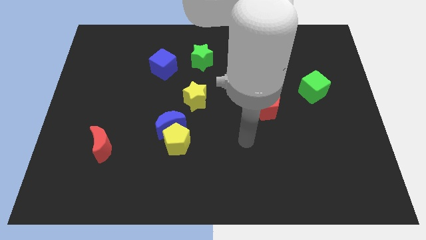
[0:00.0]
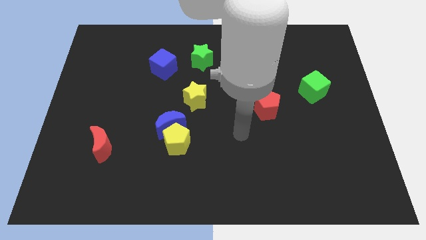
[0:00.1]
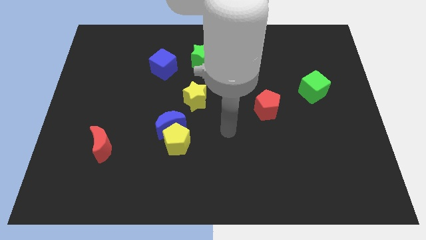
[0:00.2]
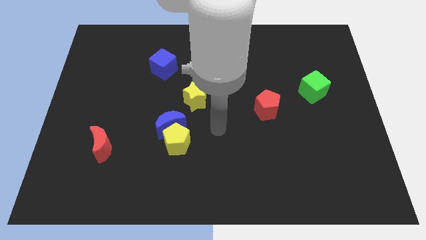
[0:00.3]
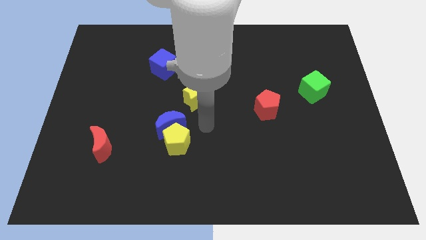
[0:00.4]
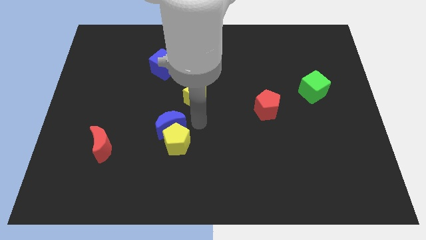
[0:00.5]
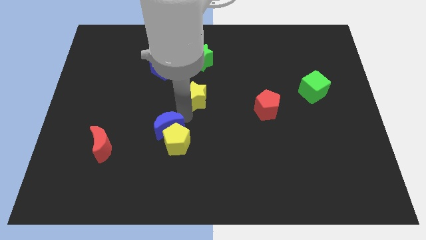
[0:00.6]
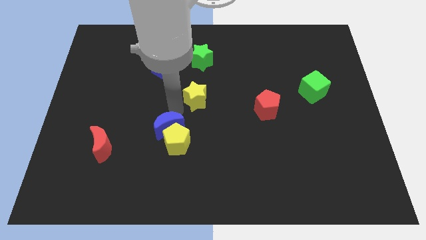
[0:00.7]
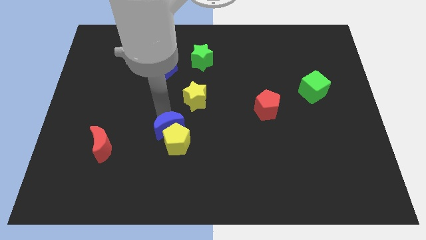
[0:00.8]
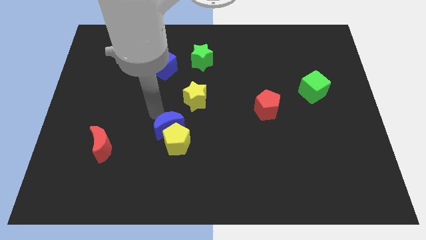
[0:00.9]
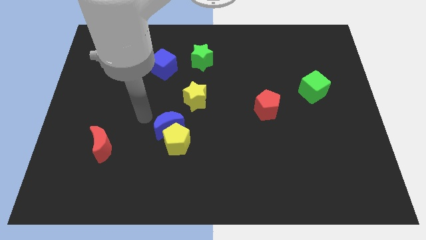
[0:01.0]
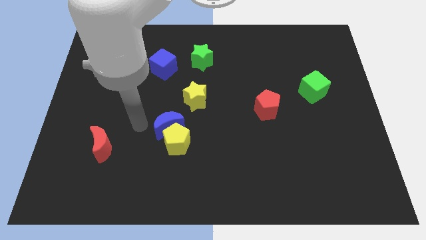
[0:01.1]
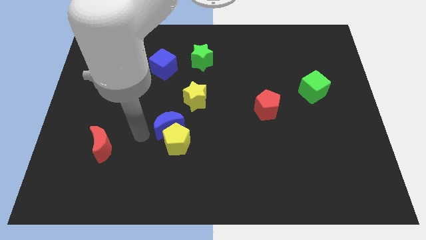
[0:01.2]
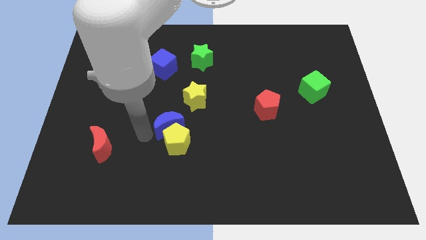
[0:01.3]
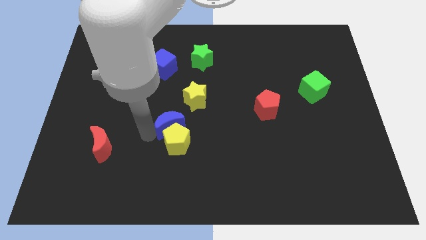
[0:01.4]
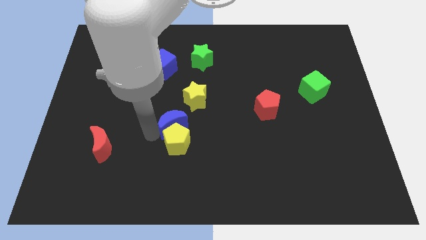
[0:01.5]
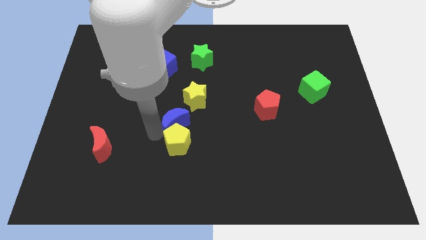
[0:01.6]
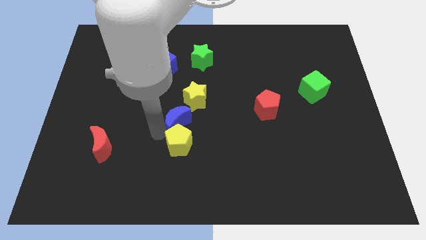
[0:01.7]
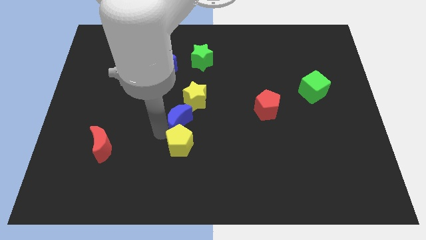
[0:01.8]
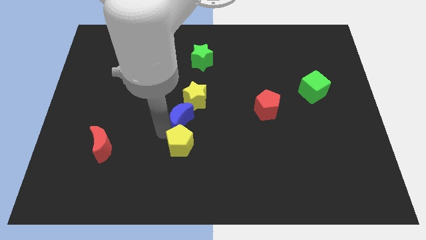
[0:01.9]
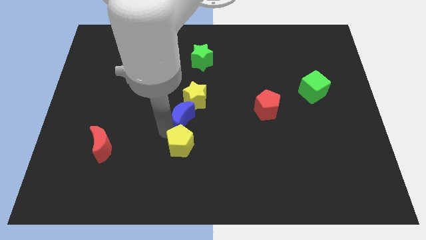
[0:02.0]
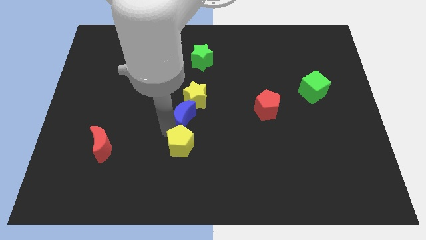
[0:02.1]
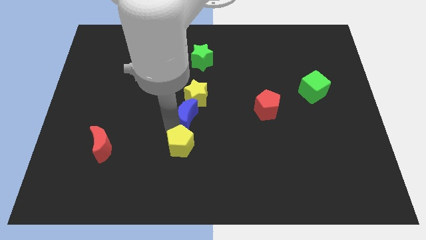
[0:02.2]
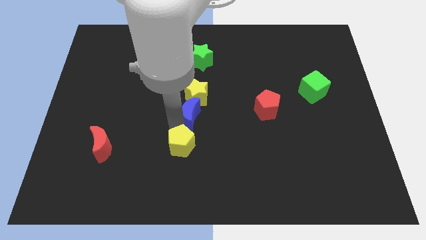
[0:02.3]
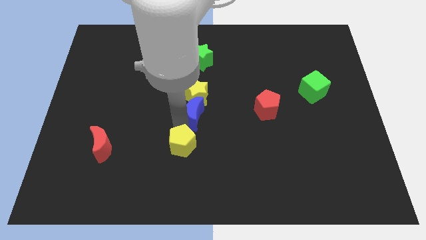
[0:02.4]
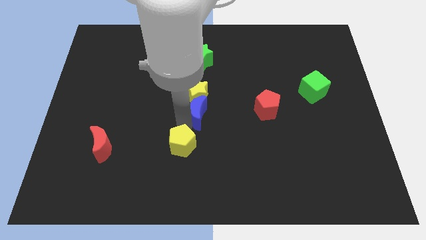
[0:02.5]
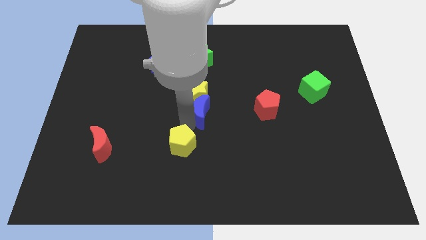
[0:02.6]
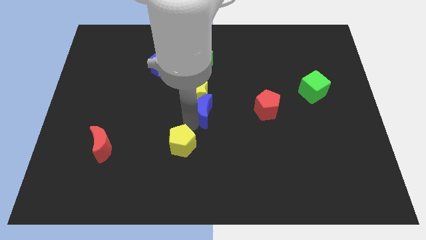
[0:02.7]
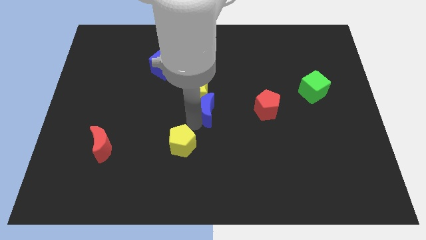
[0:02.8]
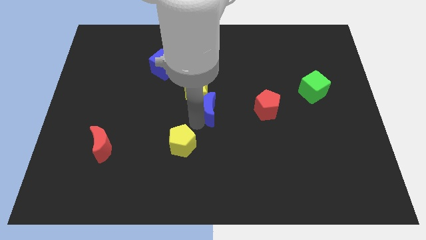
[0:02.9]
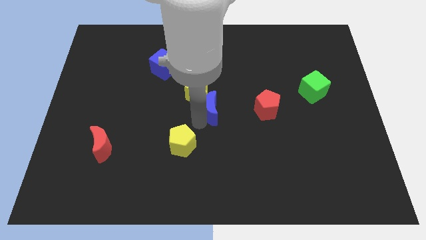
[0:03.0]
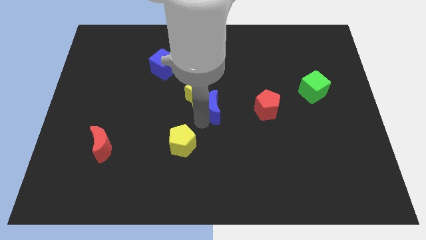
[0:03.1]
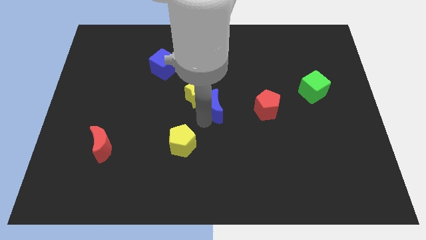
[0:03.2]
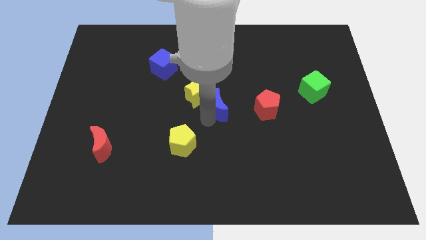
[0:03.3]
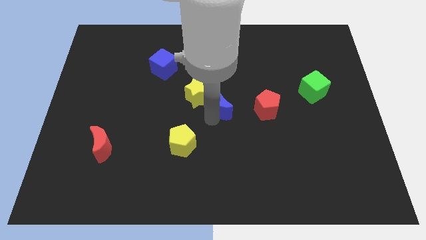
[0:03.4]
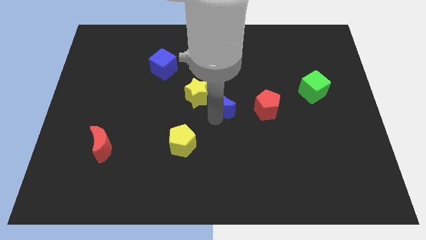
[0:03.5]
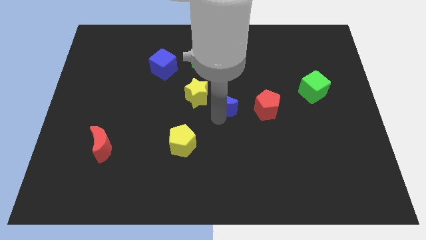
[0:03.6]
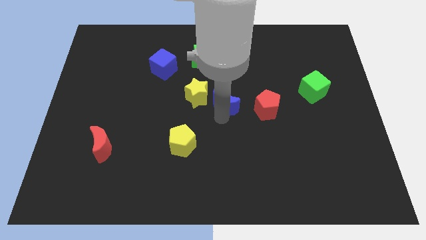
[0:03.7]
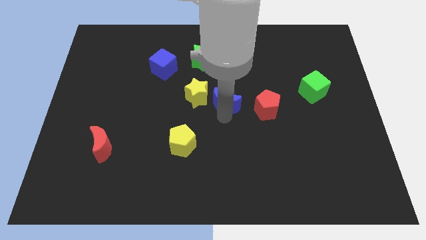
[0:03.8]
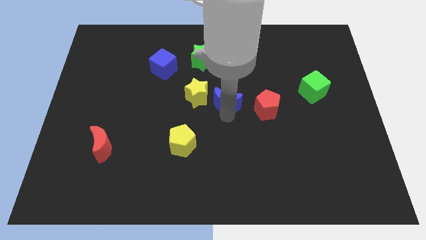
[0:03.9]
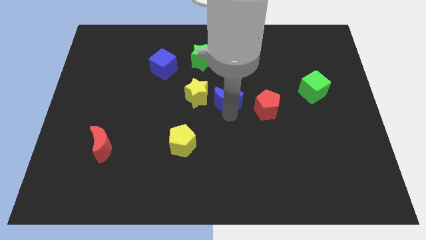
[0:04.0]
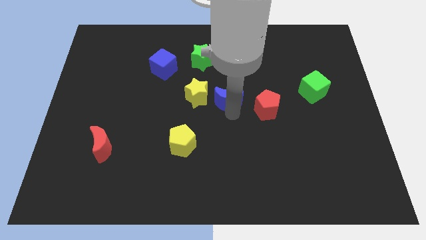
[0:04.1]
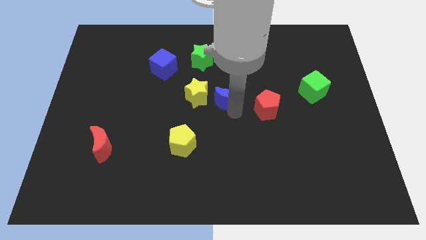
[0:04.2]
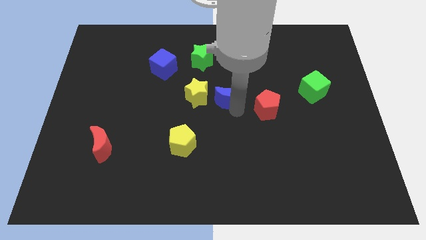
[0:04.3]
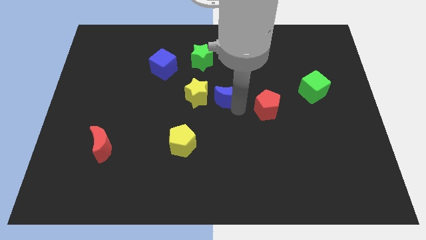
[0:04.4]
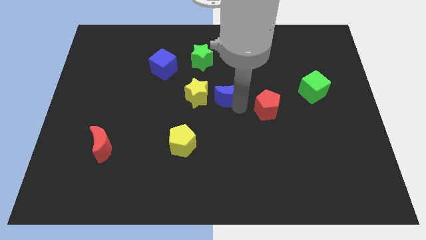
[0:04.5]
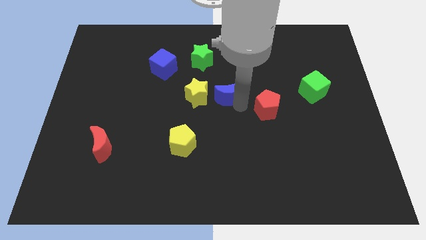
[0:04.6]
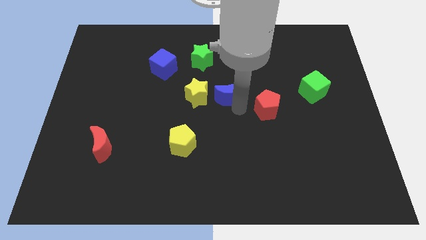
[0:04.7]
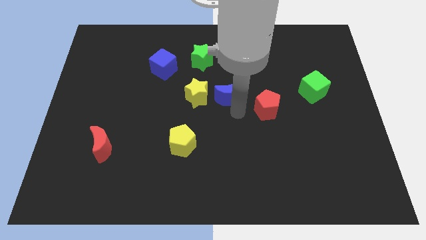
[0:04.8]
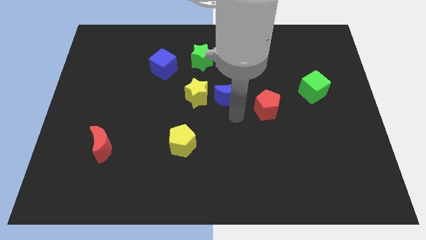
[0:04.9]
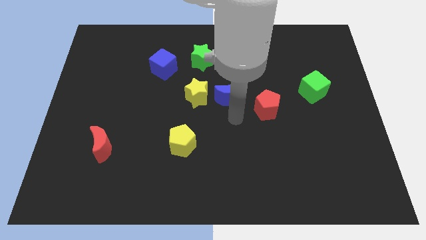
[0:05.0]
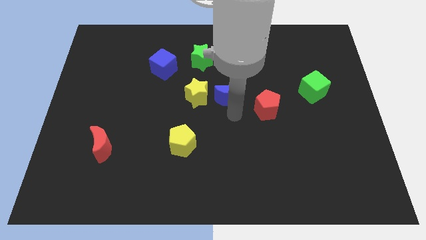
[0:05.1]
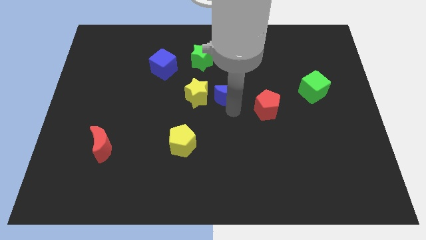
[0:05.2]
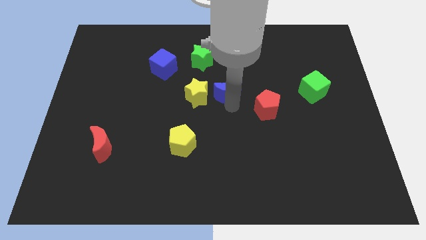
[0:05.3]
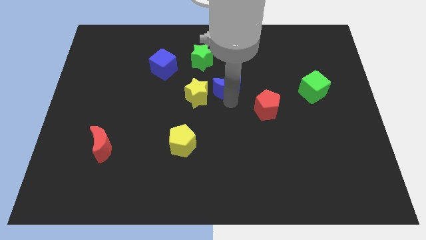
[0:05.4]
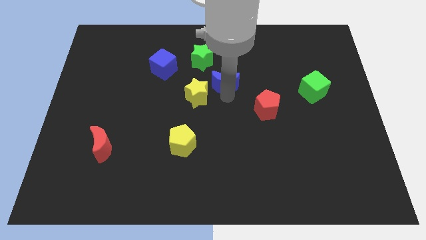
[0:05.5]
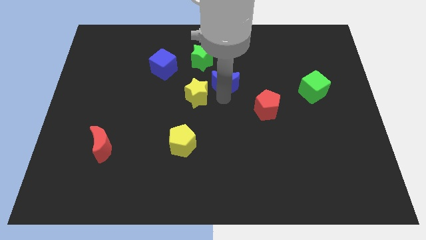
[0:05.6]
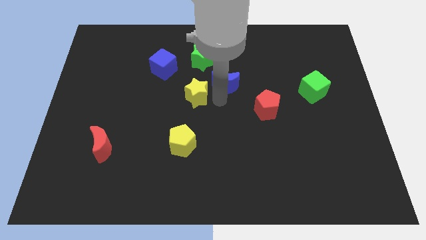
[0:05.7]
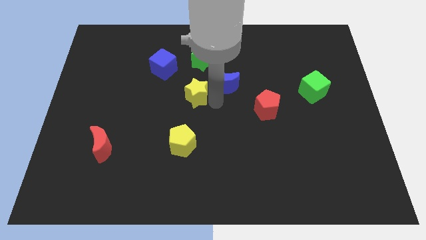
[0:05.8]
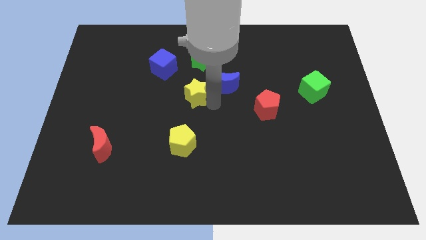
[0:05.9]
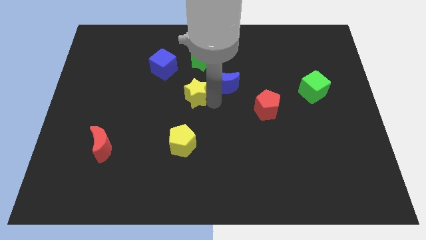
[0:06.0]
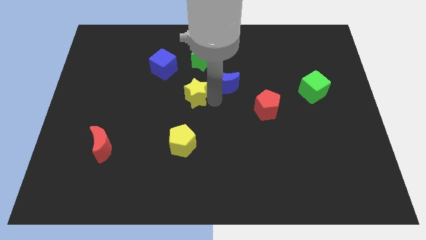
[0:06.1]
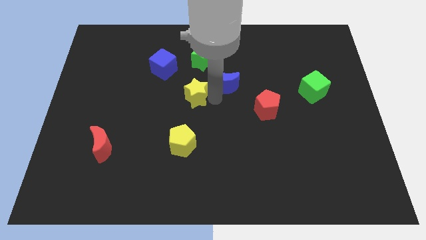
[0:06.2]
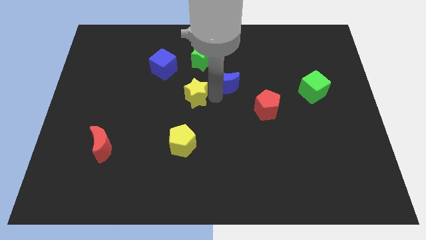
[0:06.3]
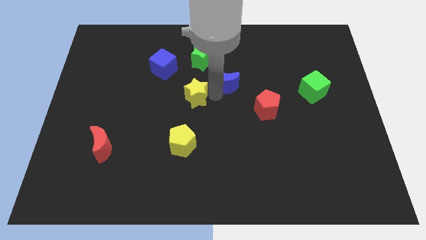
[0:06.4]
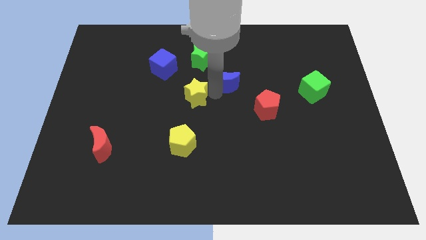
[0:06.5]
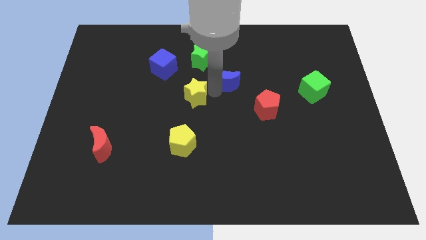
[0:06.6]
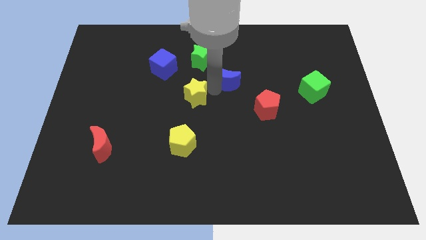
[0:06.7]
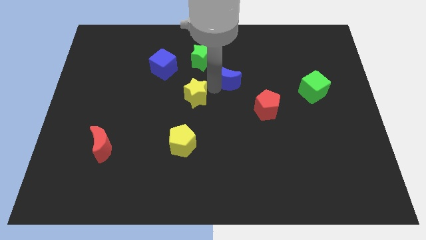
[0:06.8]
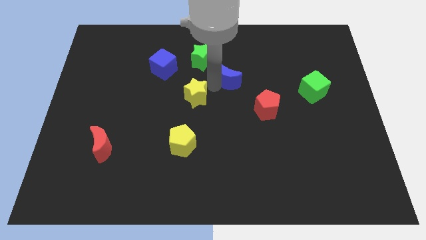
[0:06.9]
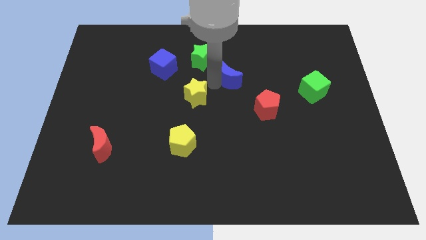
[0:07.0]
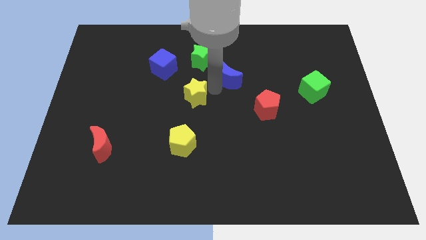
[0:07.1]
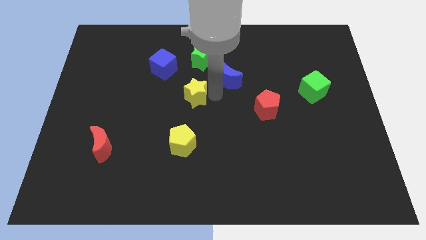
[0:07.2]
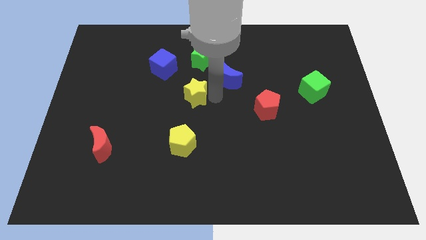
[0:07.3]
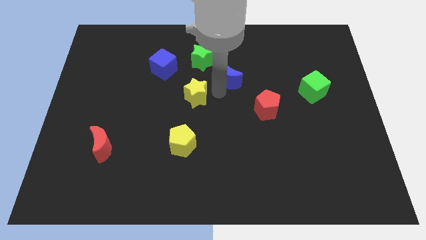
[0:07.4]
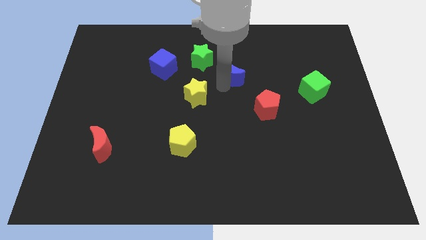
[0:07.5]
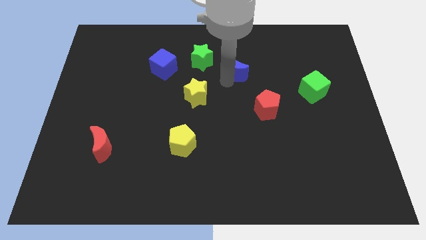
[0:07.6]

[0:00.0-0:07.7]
move the blue moon right of the green star

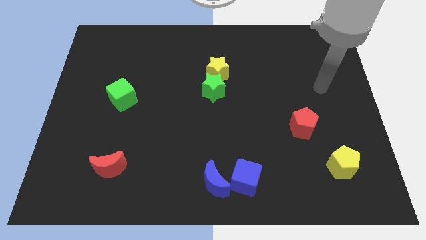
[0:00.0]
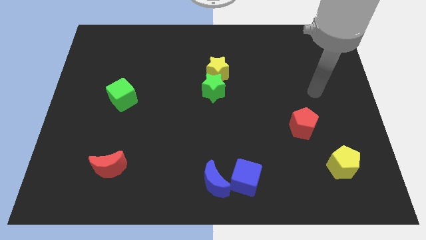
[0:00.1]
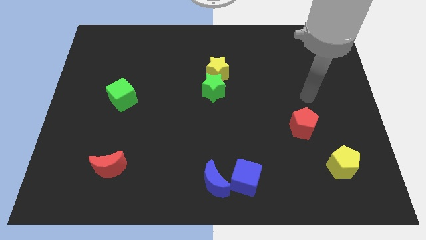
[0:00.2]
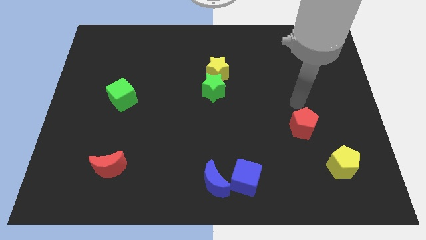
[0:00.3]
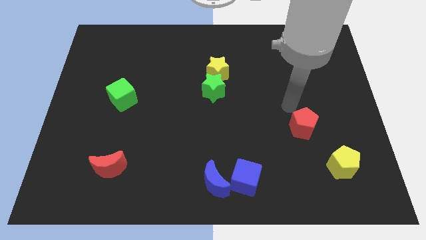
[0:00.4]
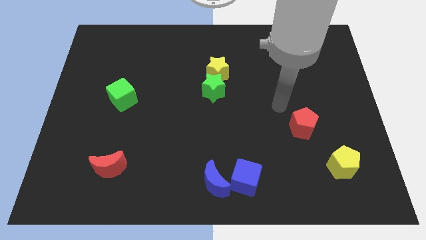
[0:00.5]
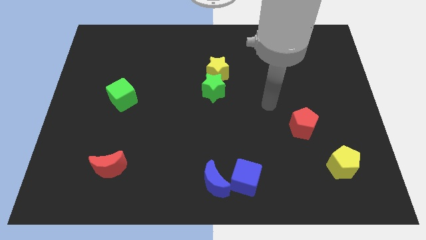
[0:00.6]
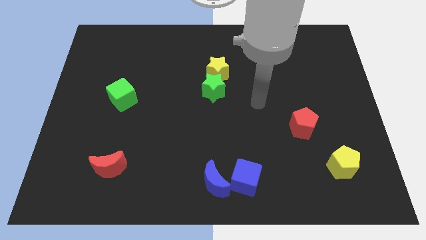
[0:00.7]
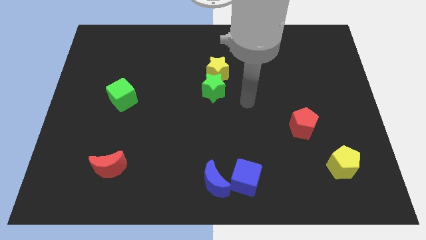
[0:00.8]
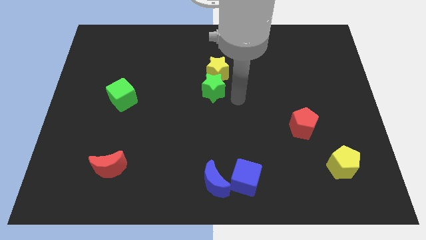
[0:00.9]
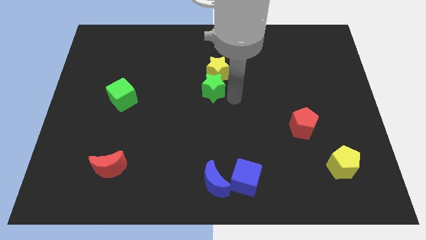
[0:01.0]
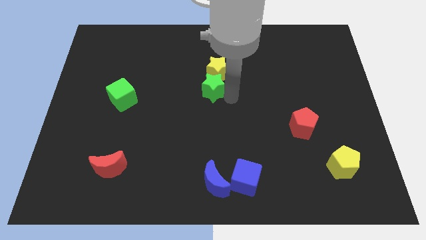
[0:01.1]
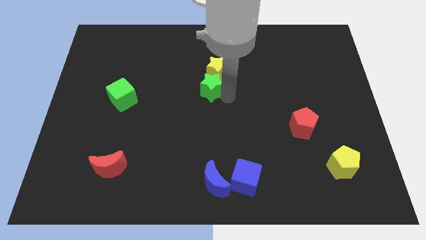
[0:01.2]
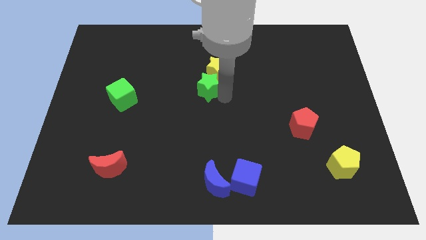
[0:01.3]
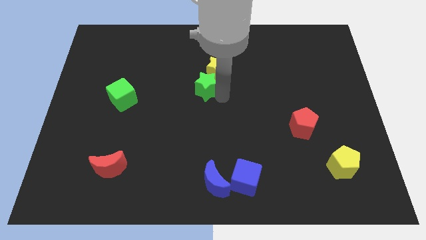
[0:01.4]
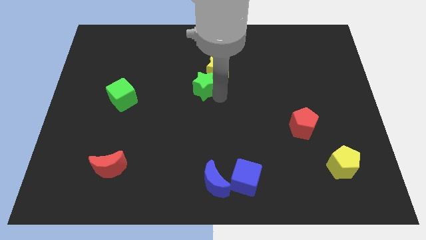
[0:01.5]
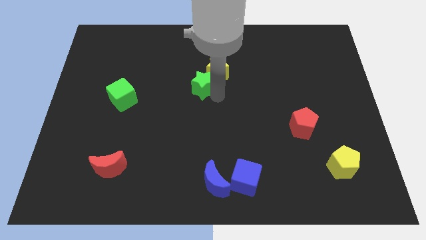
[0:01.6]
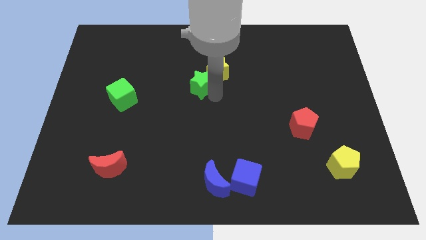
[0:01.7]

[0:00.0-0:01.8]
move the green star left of the yellow star
